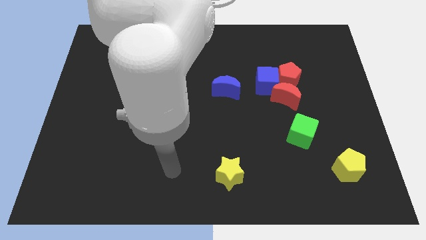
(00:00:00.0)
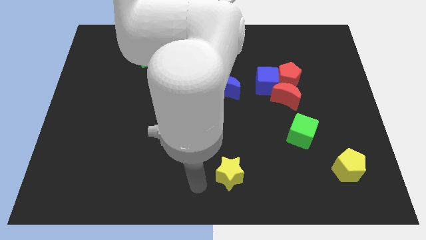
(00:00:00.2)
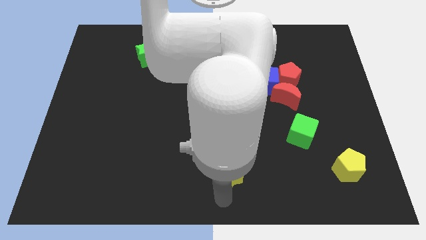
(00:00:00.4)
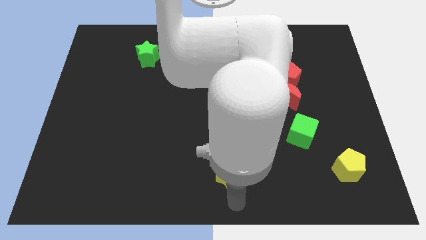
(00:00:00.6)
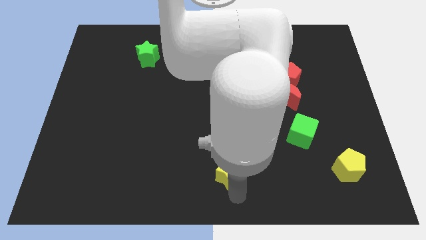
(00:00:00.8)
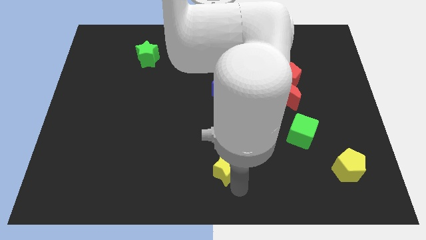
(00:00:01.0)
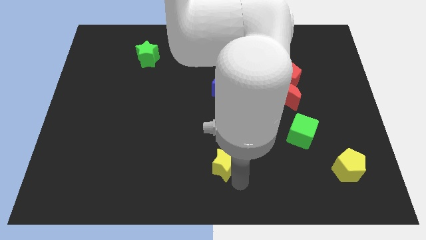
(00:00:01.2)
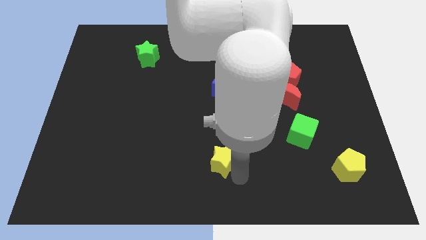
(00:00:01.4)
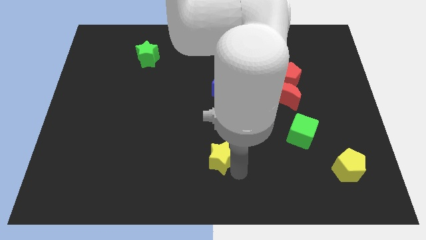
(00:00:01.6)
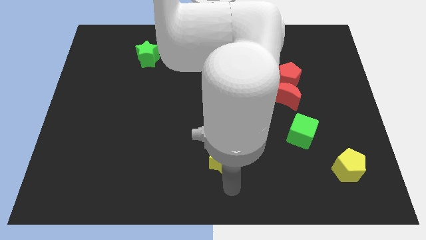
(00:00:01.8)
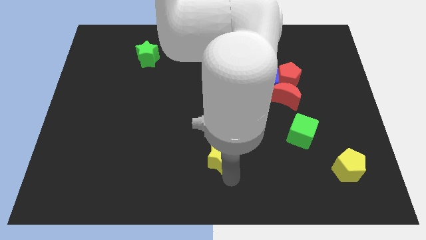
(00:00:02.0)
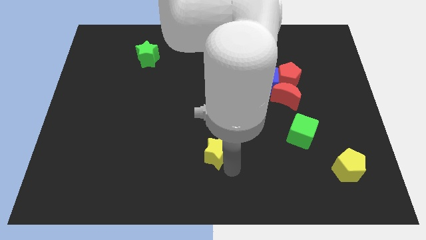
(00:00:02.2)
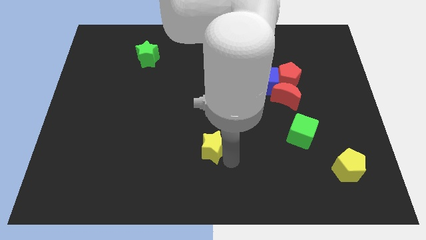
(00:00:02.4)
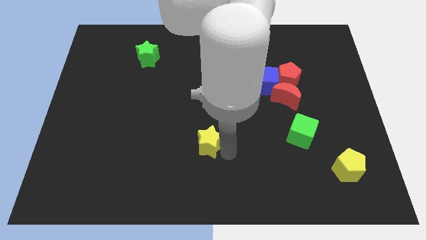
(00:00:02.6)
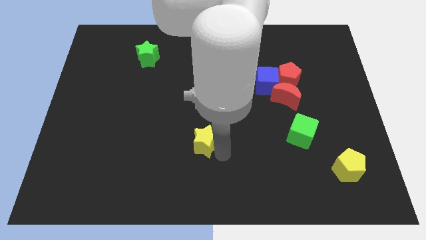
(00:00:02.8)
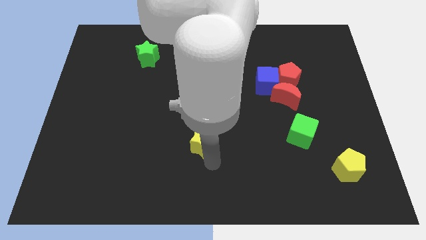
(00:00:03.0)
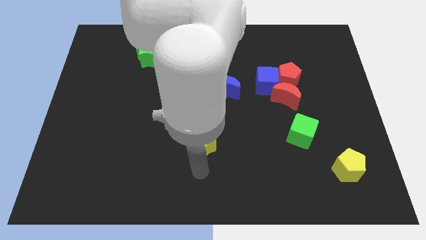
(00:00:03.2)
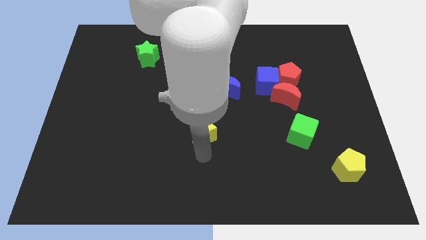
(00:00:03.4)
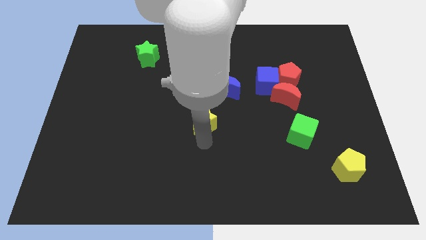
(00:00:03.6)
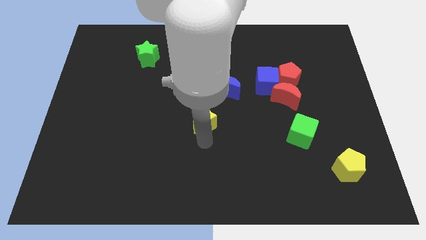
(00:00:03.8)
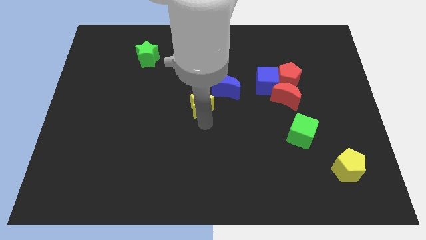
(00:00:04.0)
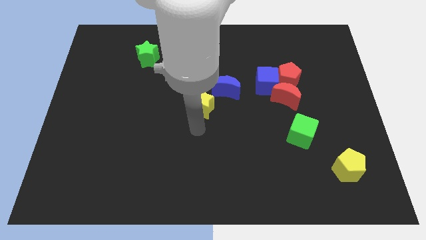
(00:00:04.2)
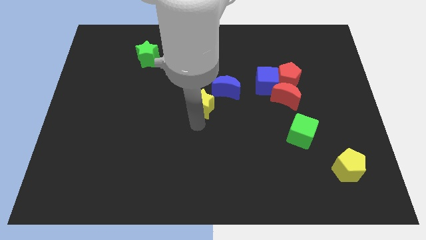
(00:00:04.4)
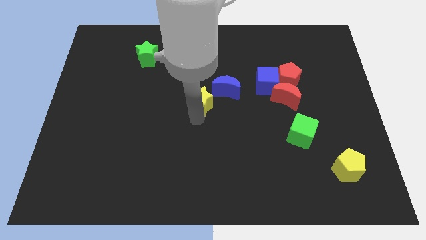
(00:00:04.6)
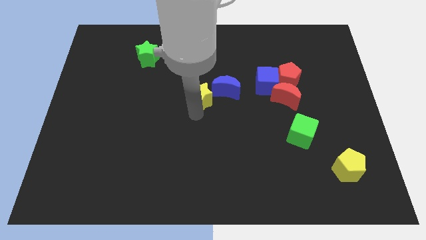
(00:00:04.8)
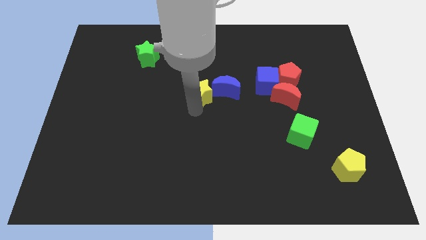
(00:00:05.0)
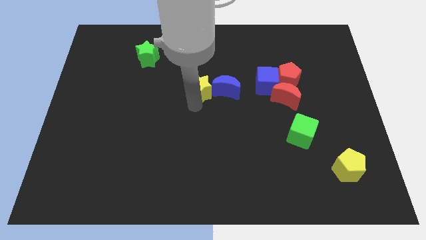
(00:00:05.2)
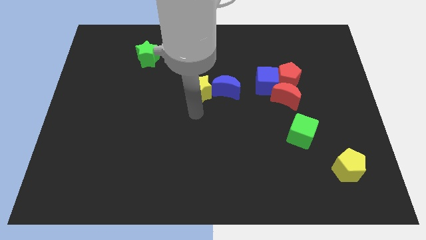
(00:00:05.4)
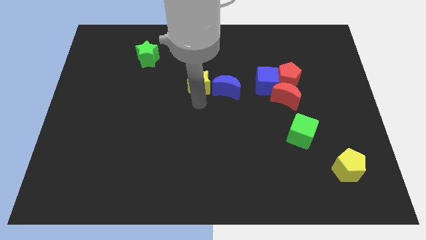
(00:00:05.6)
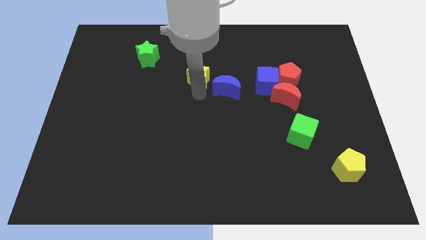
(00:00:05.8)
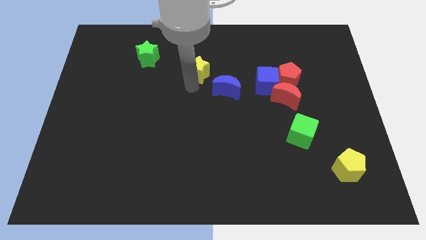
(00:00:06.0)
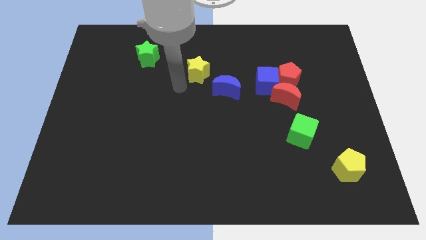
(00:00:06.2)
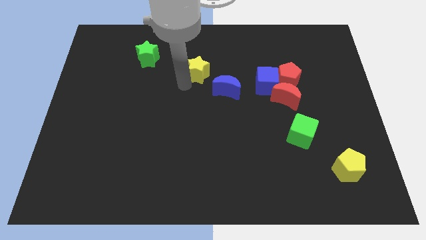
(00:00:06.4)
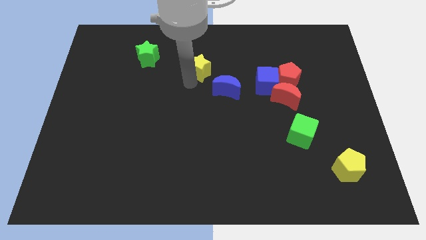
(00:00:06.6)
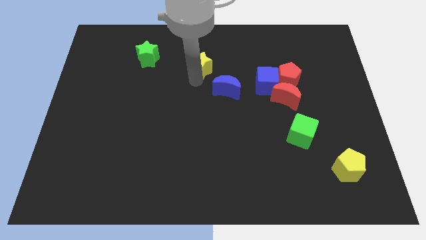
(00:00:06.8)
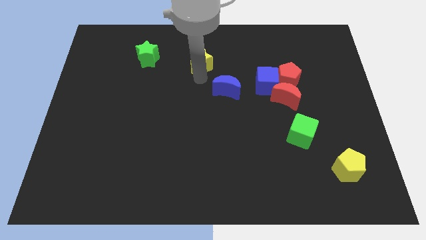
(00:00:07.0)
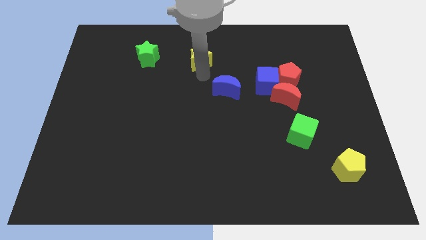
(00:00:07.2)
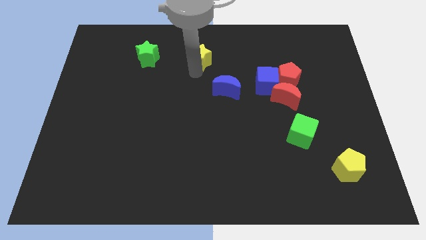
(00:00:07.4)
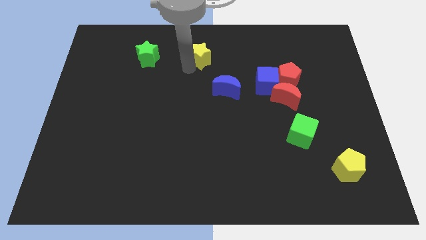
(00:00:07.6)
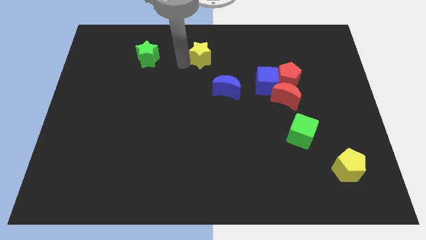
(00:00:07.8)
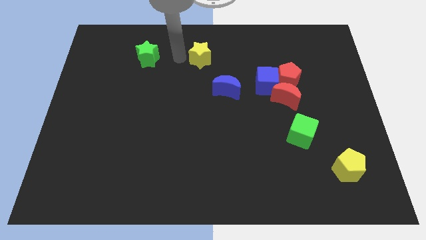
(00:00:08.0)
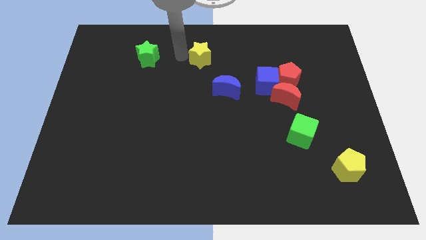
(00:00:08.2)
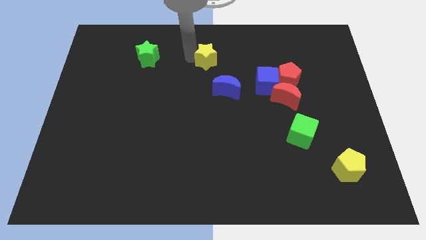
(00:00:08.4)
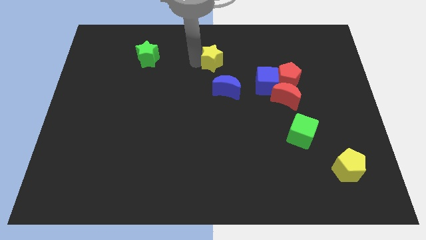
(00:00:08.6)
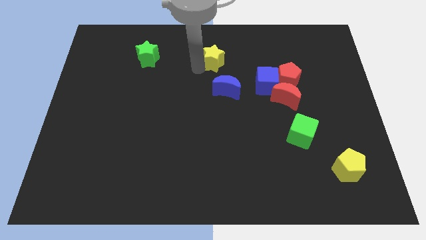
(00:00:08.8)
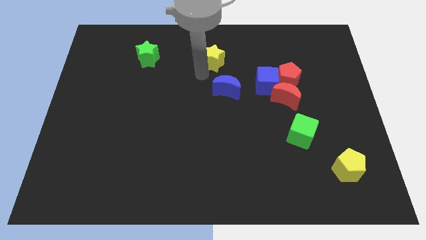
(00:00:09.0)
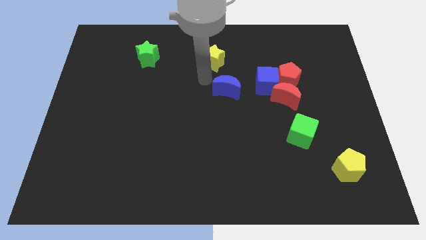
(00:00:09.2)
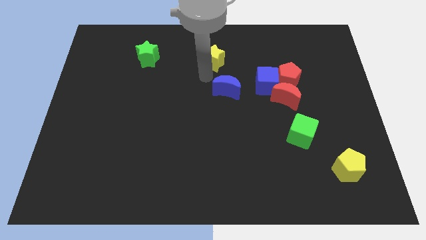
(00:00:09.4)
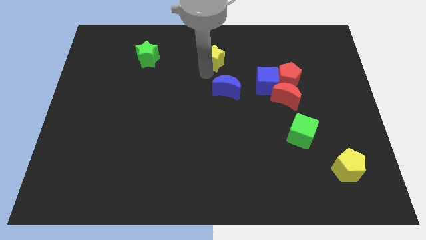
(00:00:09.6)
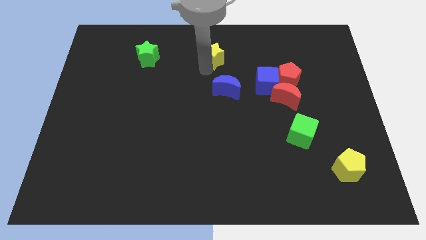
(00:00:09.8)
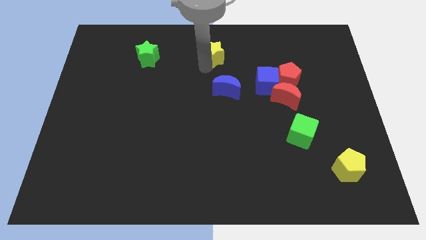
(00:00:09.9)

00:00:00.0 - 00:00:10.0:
move the yellow star to the top
